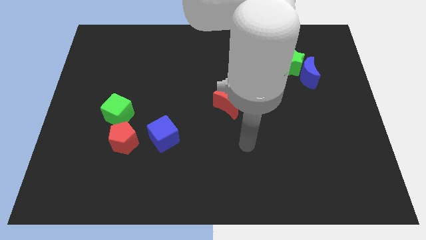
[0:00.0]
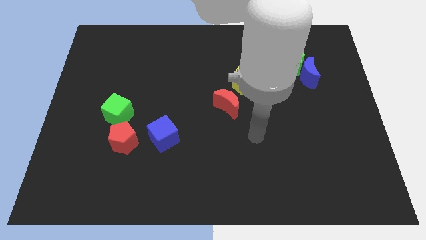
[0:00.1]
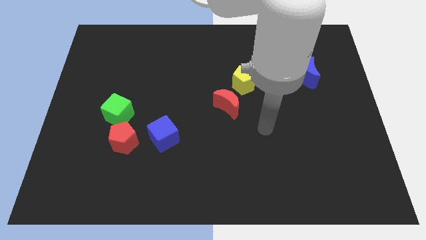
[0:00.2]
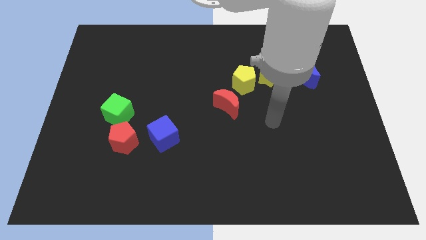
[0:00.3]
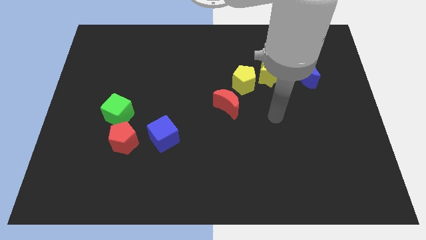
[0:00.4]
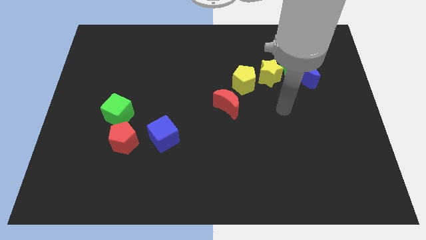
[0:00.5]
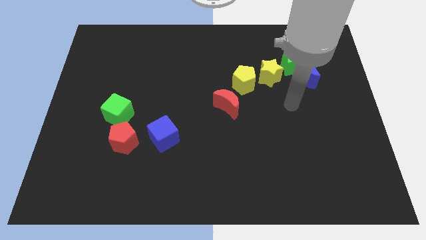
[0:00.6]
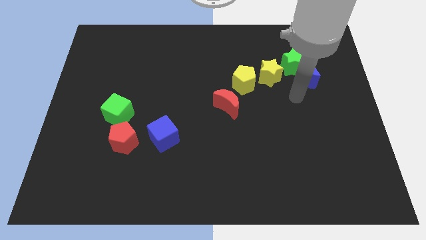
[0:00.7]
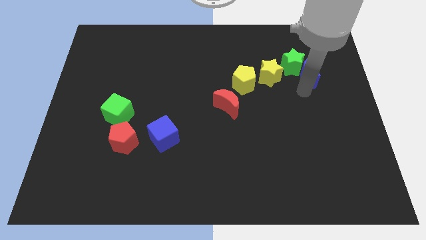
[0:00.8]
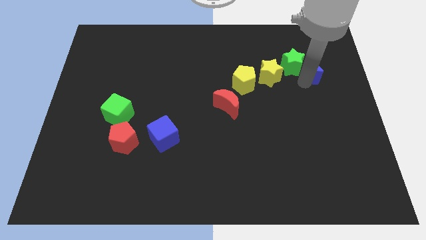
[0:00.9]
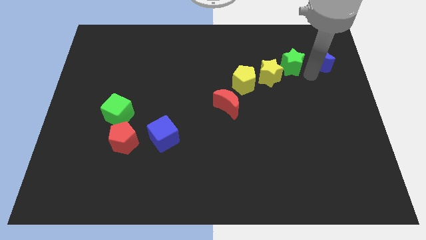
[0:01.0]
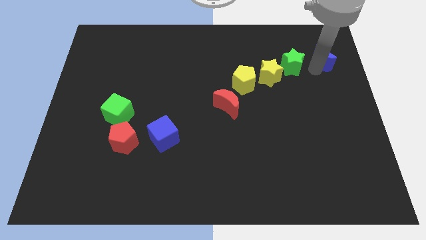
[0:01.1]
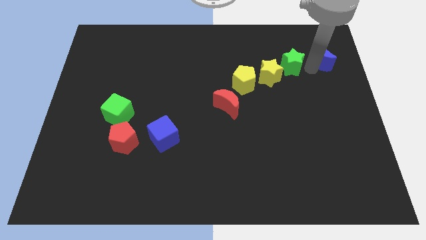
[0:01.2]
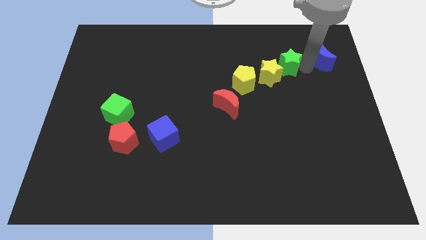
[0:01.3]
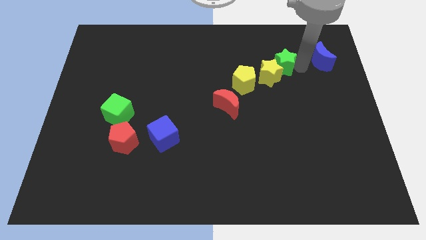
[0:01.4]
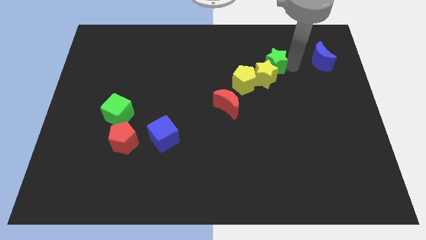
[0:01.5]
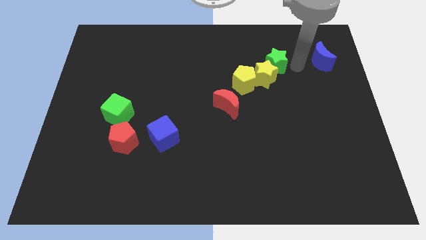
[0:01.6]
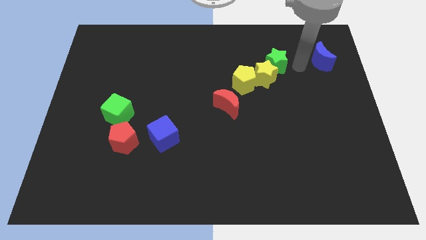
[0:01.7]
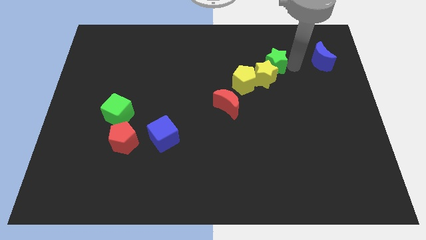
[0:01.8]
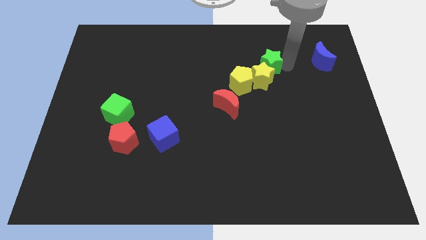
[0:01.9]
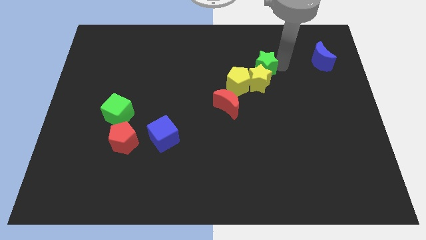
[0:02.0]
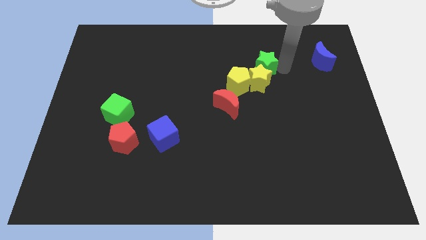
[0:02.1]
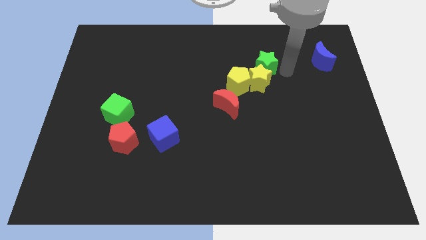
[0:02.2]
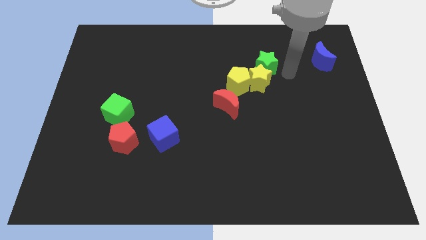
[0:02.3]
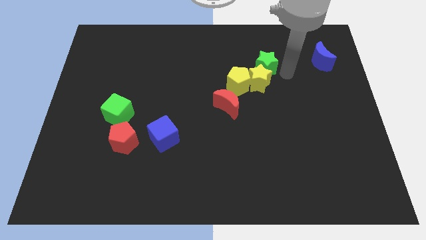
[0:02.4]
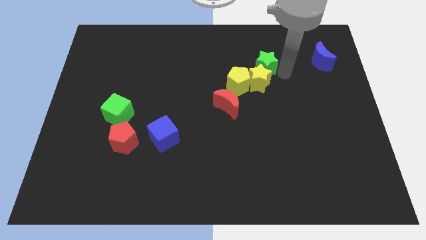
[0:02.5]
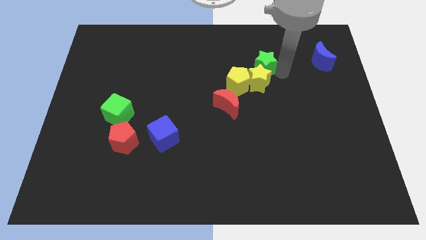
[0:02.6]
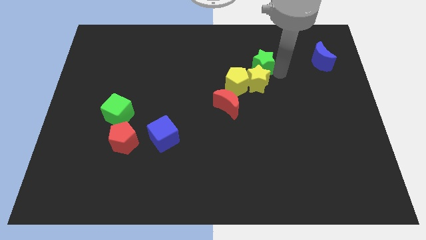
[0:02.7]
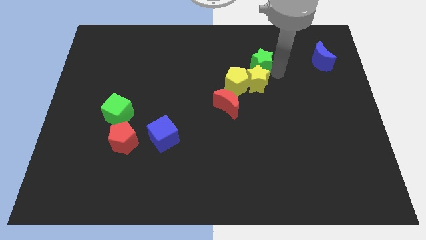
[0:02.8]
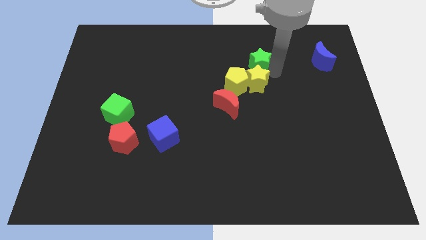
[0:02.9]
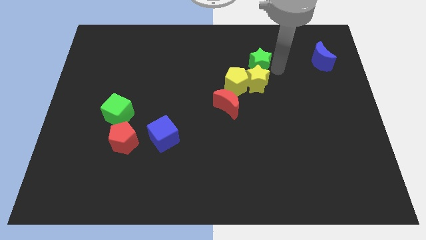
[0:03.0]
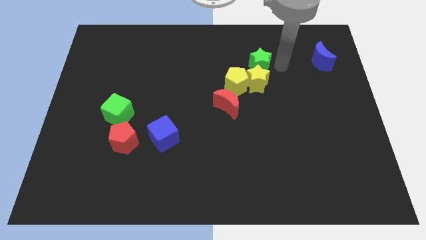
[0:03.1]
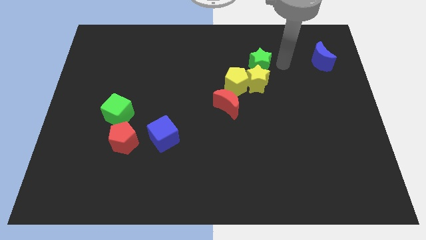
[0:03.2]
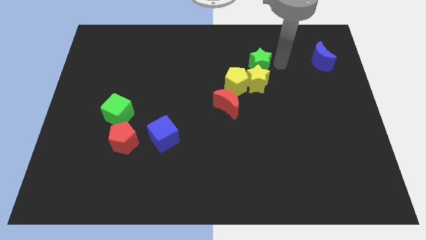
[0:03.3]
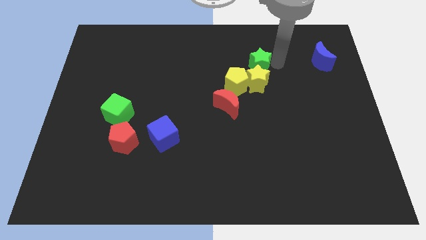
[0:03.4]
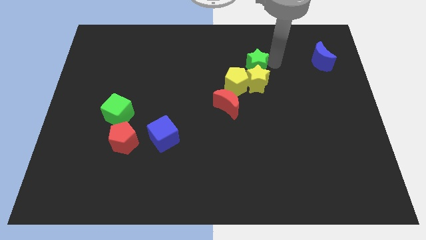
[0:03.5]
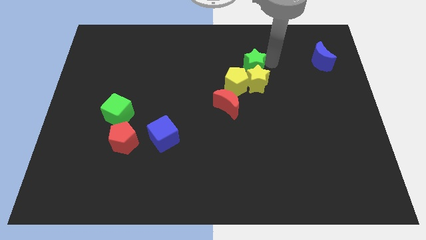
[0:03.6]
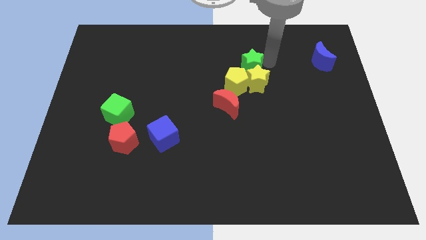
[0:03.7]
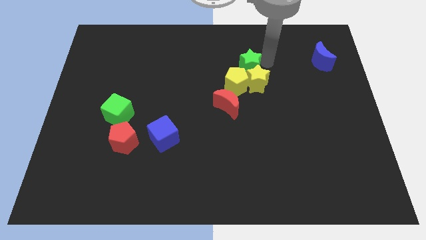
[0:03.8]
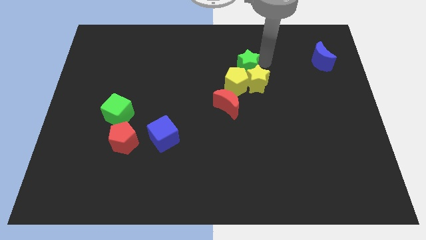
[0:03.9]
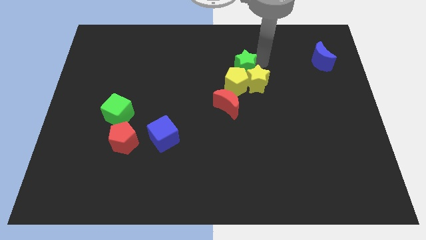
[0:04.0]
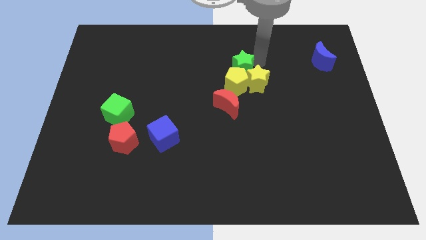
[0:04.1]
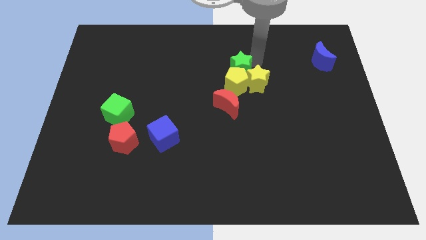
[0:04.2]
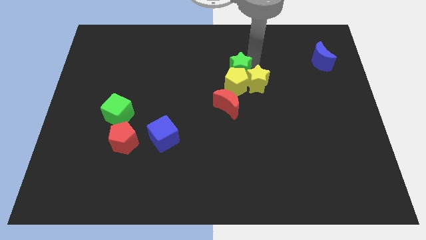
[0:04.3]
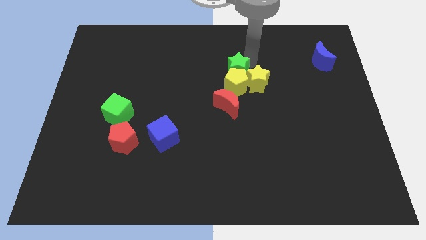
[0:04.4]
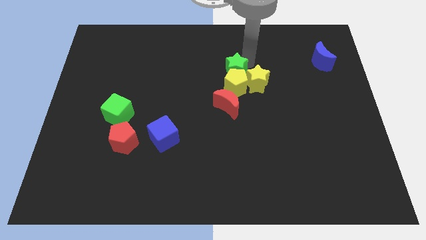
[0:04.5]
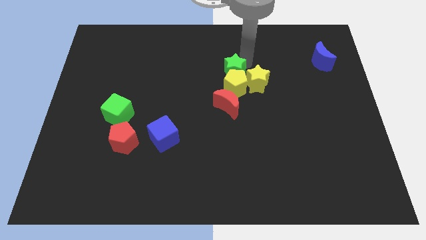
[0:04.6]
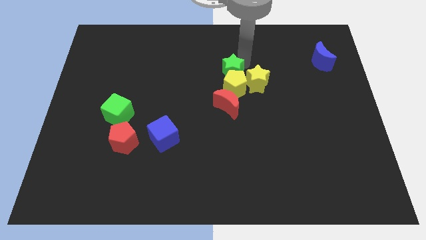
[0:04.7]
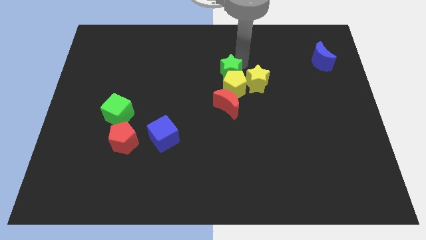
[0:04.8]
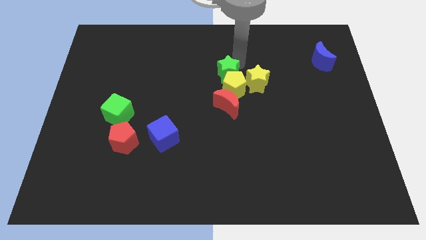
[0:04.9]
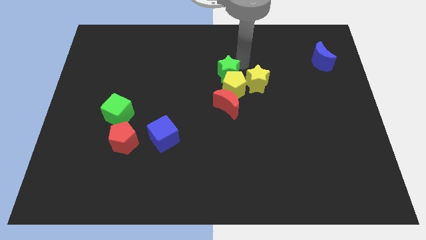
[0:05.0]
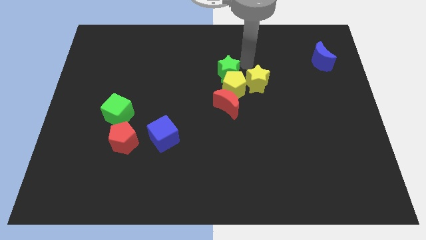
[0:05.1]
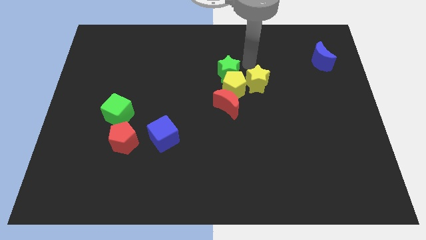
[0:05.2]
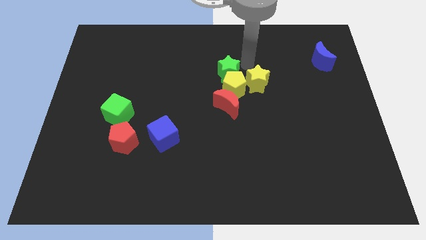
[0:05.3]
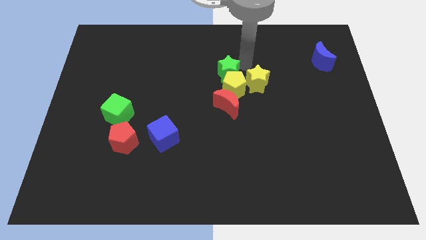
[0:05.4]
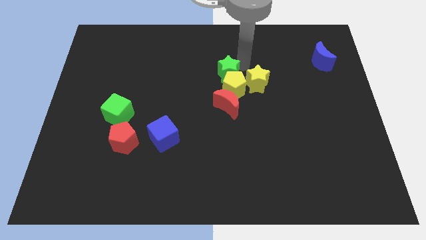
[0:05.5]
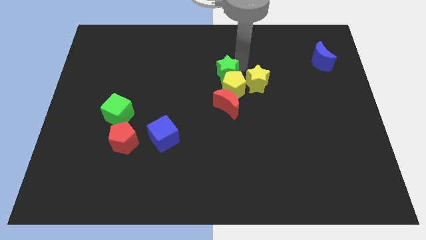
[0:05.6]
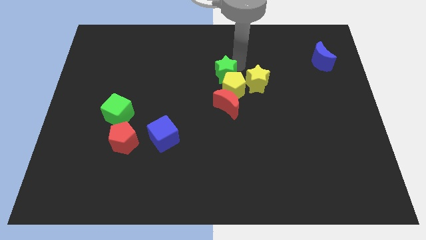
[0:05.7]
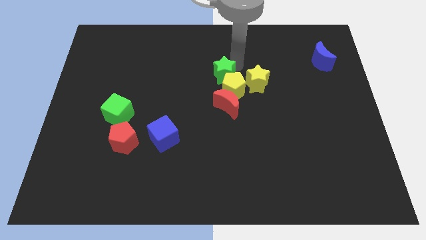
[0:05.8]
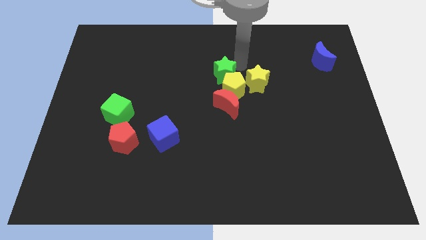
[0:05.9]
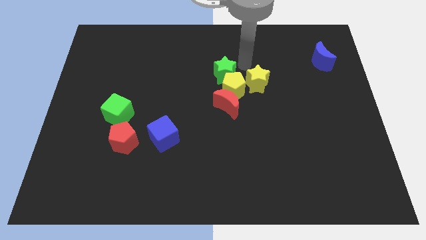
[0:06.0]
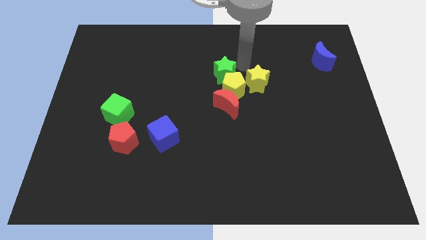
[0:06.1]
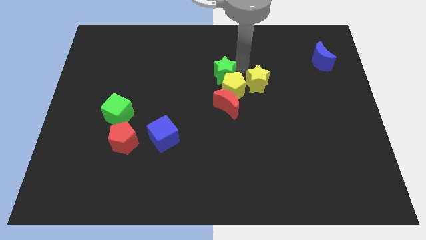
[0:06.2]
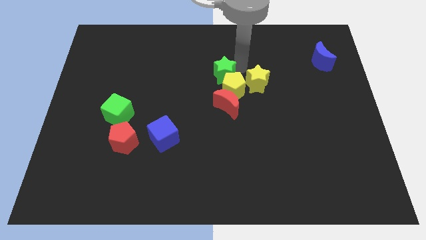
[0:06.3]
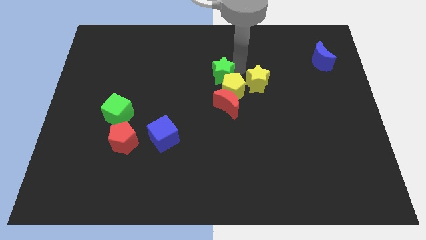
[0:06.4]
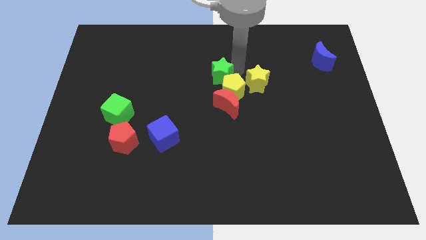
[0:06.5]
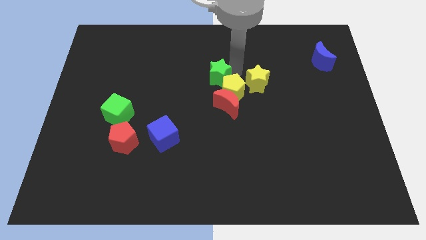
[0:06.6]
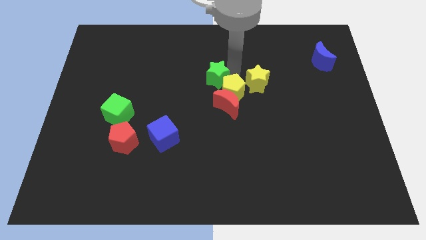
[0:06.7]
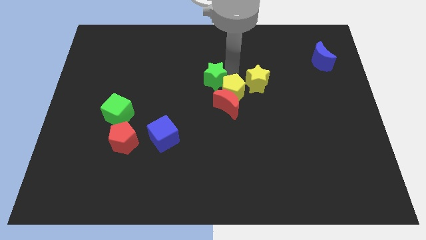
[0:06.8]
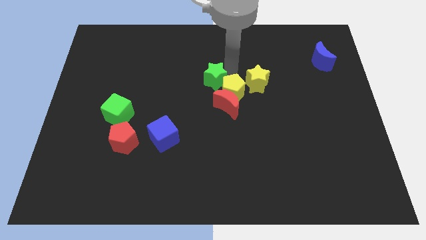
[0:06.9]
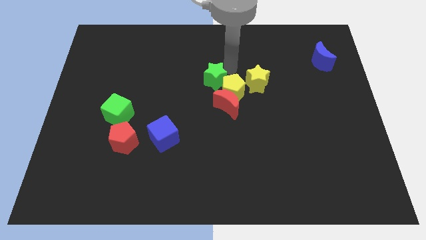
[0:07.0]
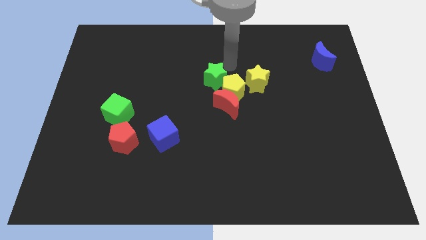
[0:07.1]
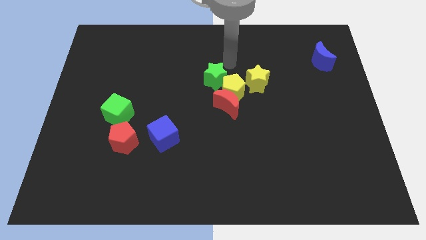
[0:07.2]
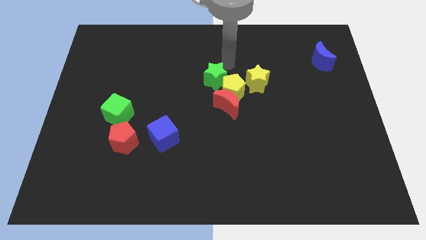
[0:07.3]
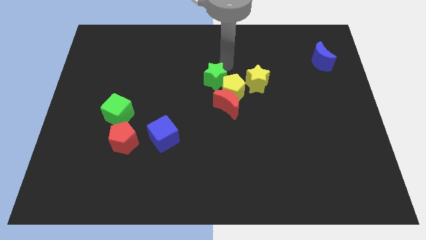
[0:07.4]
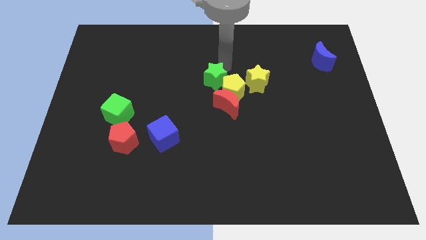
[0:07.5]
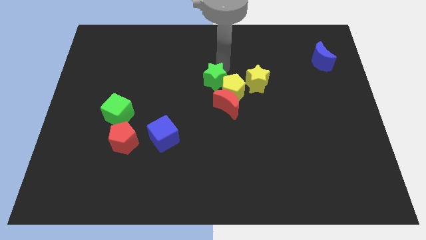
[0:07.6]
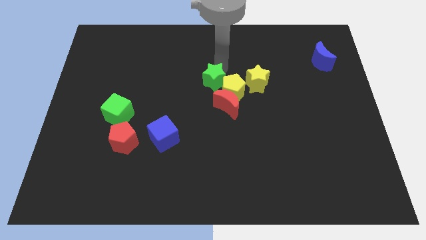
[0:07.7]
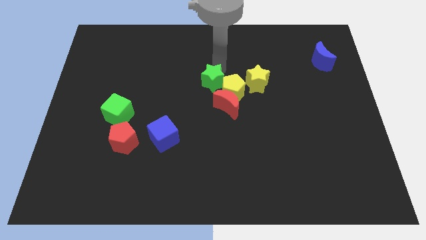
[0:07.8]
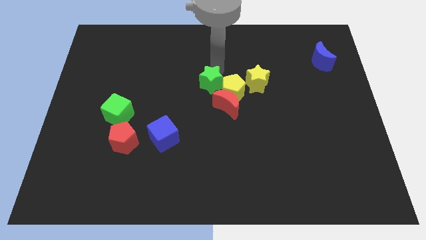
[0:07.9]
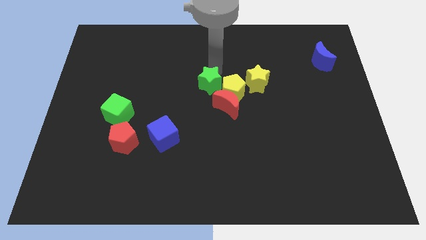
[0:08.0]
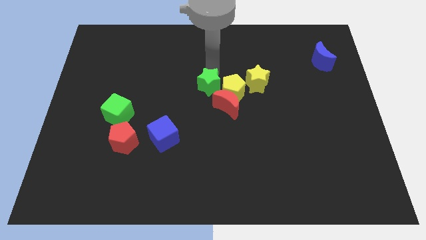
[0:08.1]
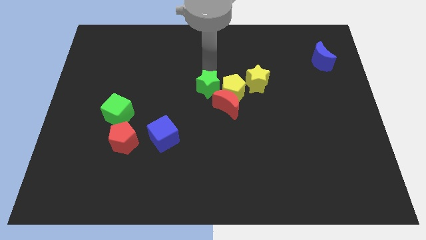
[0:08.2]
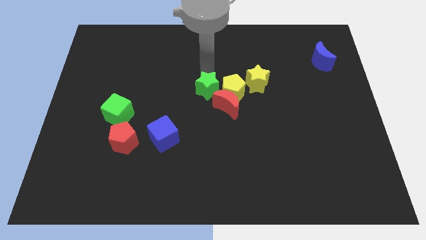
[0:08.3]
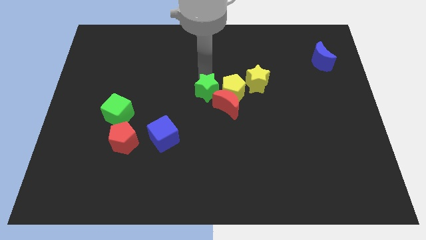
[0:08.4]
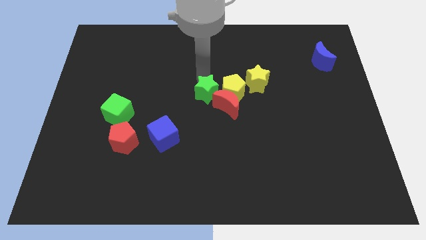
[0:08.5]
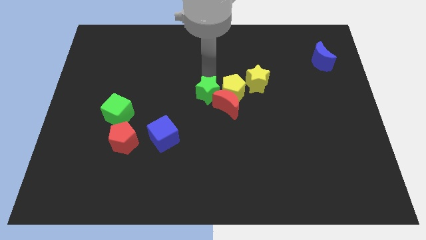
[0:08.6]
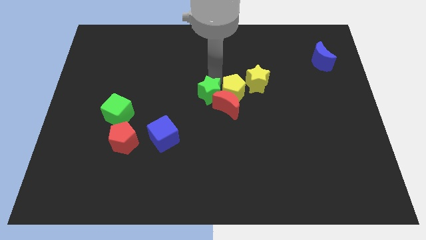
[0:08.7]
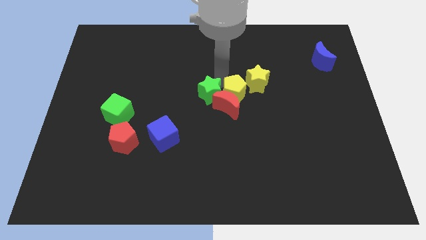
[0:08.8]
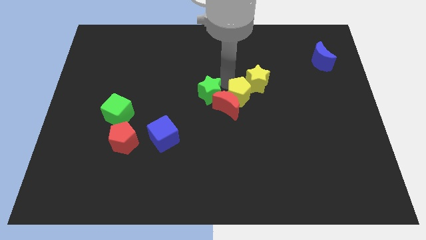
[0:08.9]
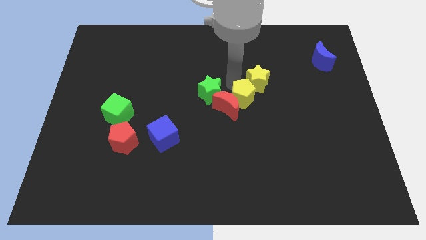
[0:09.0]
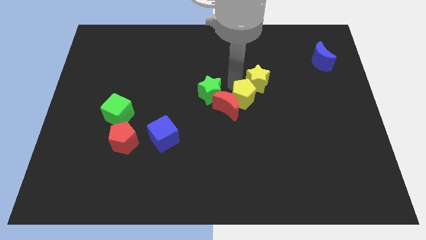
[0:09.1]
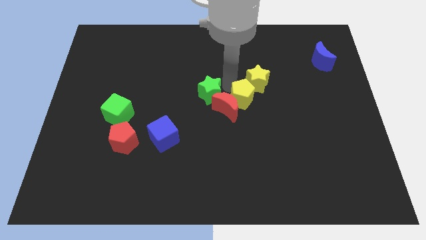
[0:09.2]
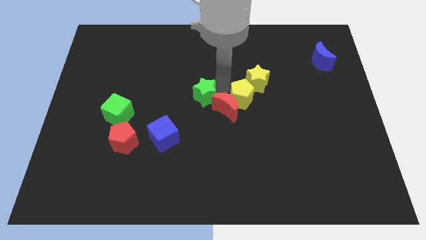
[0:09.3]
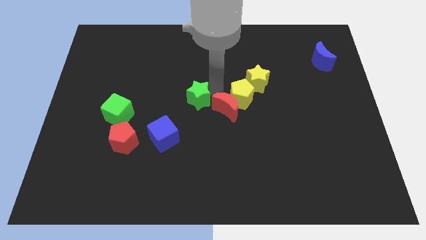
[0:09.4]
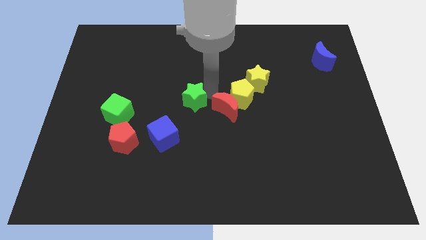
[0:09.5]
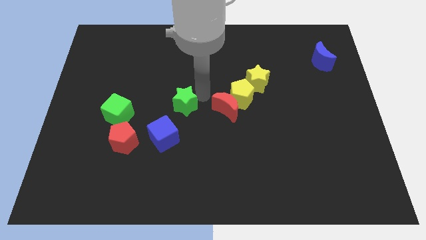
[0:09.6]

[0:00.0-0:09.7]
push the green star right of the green cube
